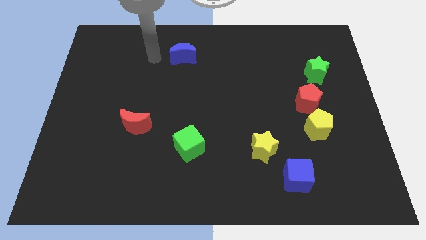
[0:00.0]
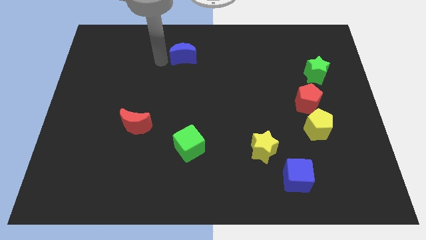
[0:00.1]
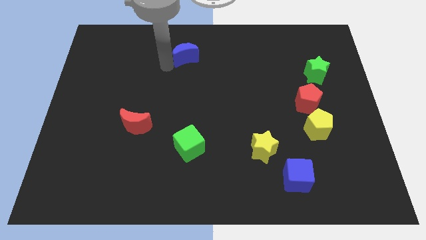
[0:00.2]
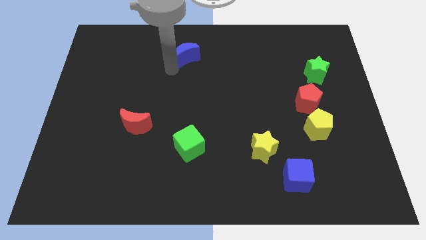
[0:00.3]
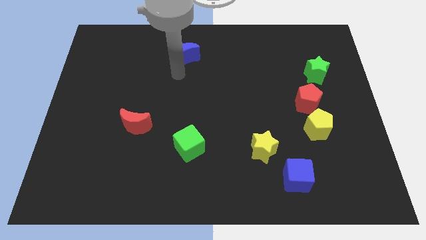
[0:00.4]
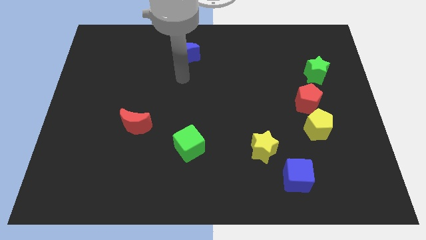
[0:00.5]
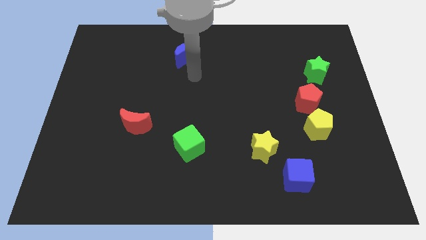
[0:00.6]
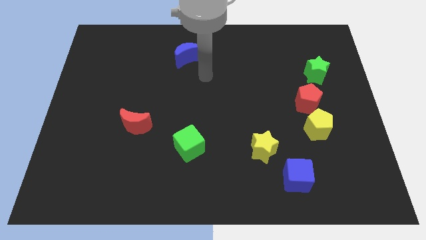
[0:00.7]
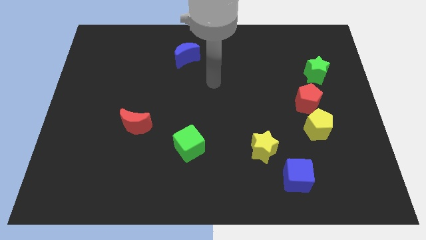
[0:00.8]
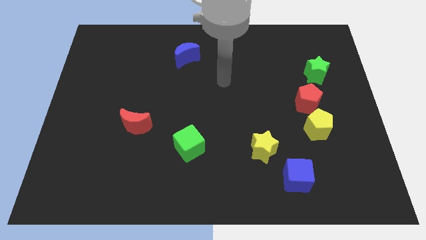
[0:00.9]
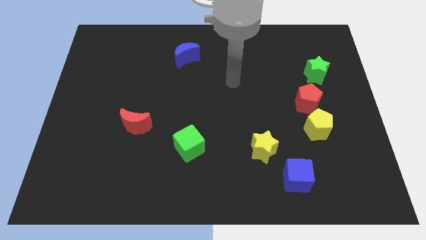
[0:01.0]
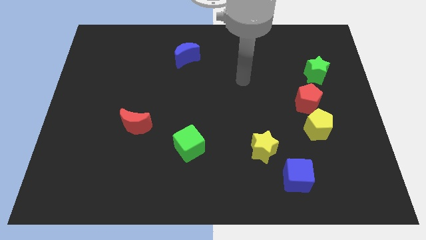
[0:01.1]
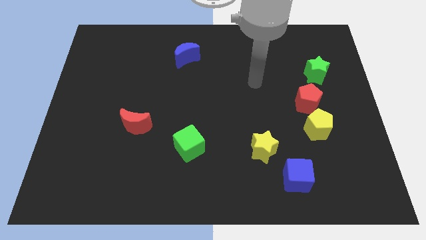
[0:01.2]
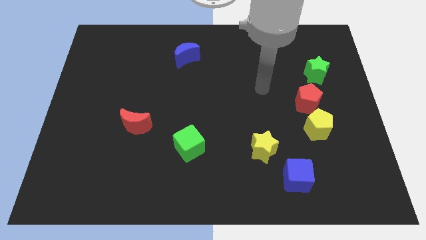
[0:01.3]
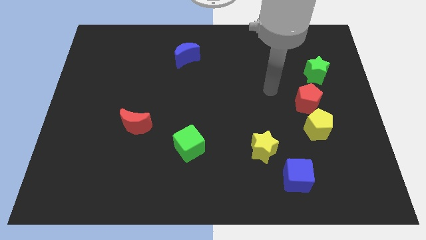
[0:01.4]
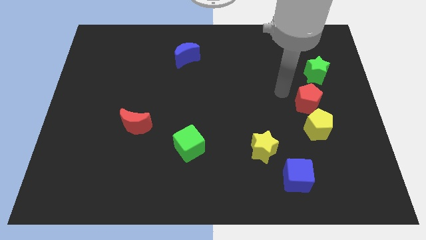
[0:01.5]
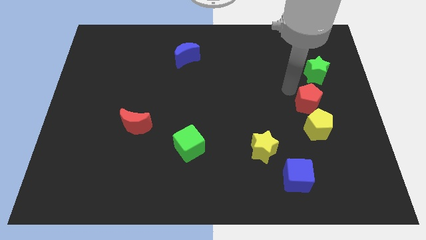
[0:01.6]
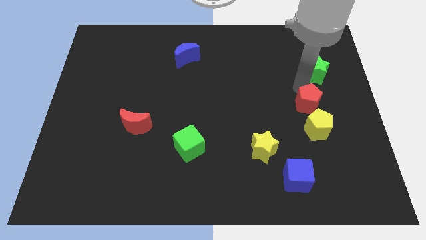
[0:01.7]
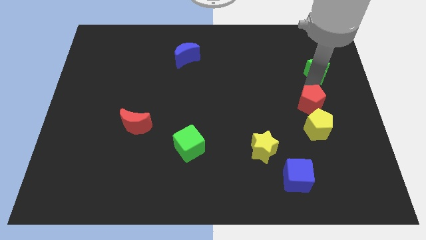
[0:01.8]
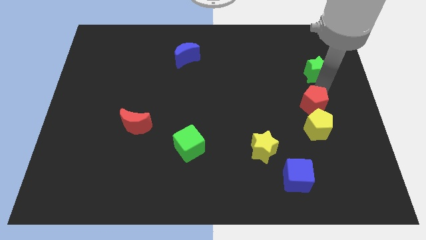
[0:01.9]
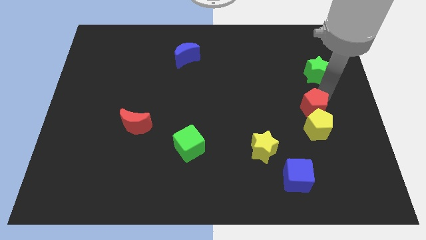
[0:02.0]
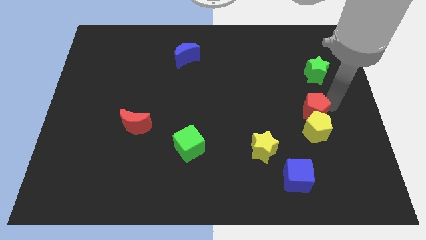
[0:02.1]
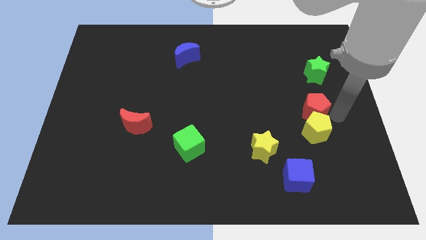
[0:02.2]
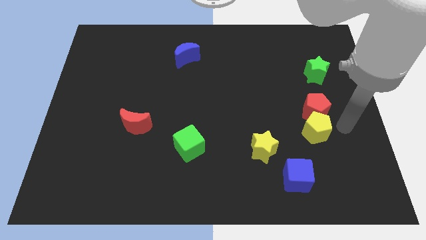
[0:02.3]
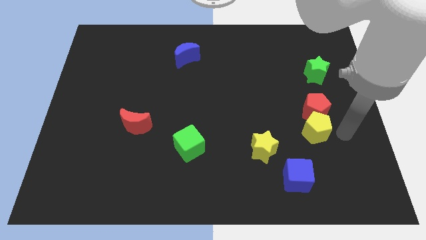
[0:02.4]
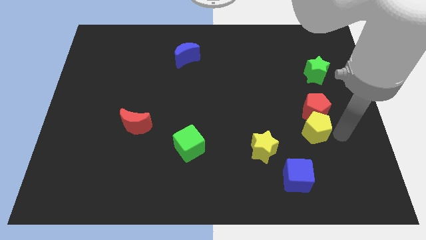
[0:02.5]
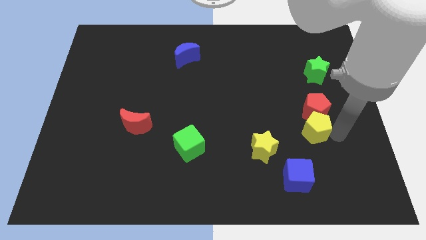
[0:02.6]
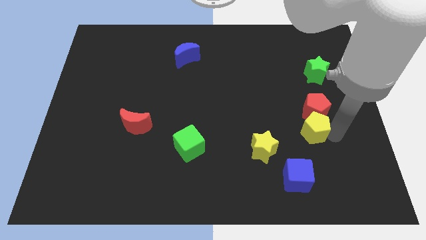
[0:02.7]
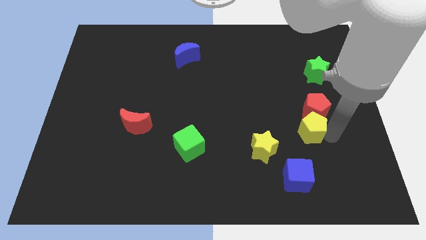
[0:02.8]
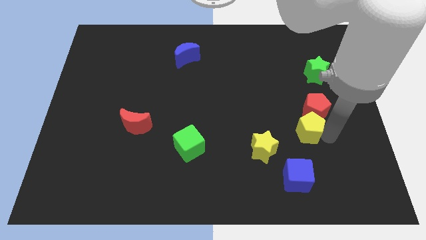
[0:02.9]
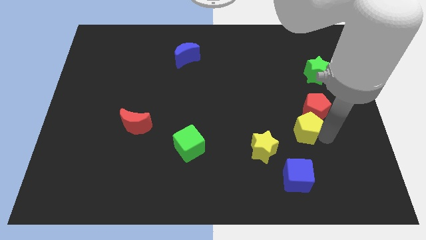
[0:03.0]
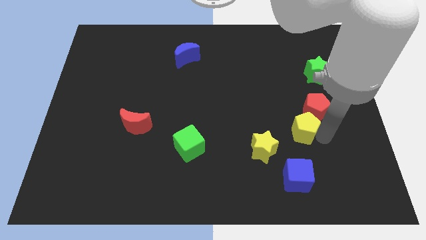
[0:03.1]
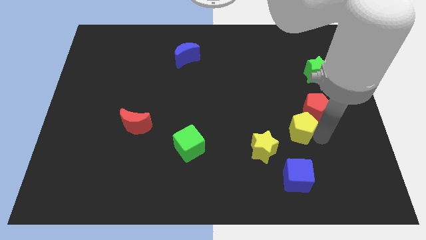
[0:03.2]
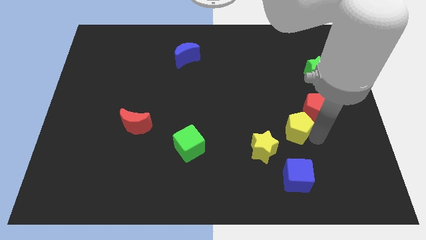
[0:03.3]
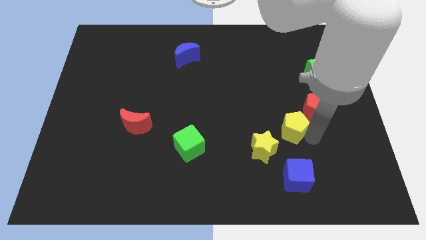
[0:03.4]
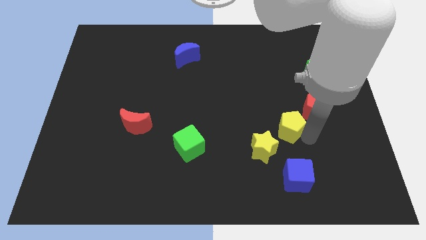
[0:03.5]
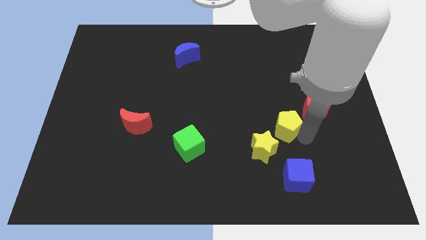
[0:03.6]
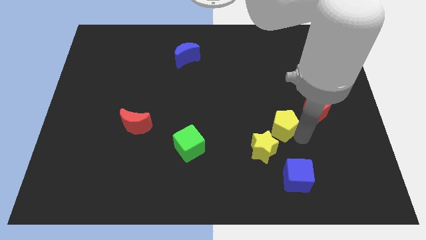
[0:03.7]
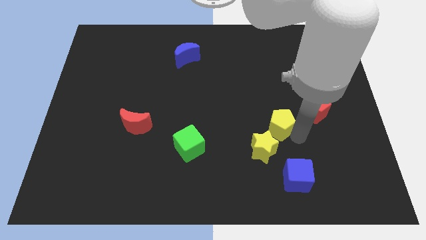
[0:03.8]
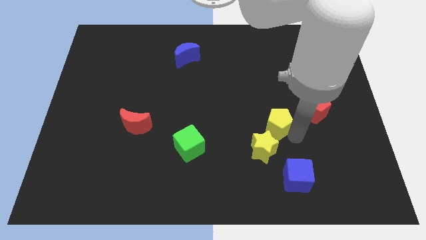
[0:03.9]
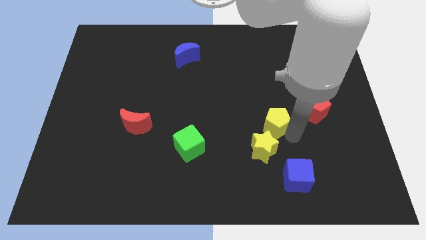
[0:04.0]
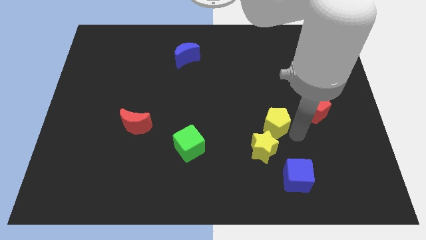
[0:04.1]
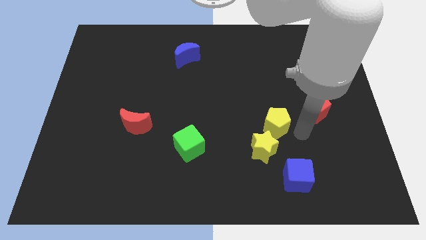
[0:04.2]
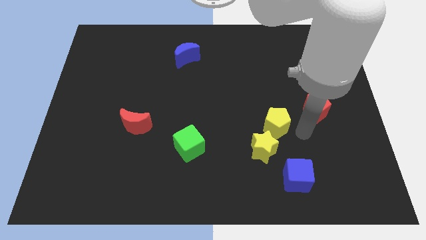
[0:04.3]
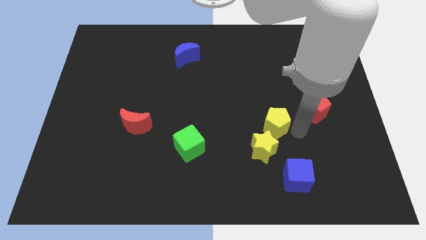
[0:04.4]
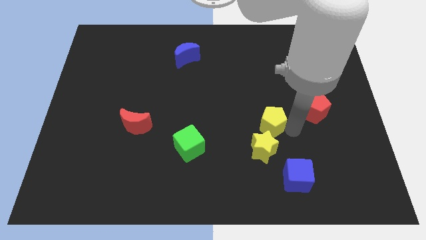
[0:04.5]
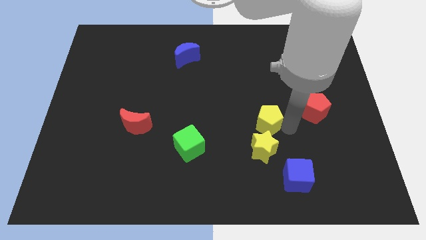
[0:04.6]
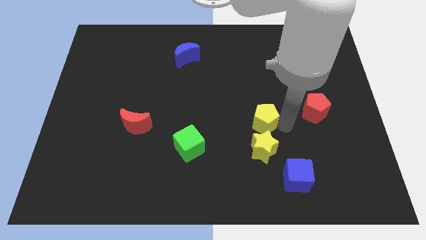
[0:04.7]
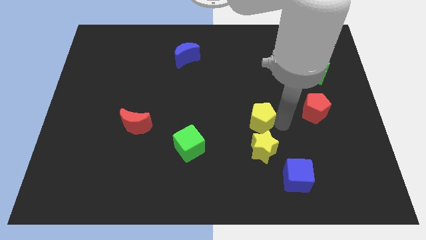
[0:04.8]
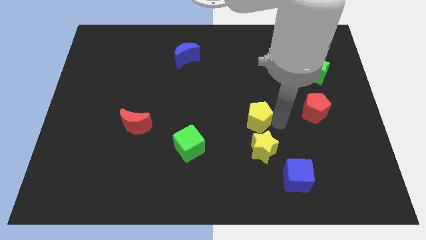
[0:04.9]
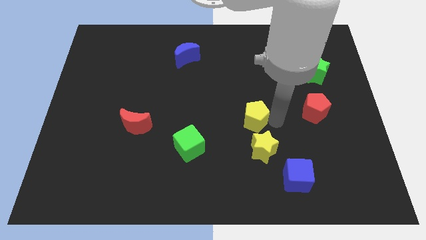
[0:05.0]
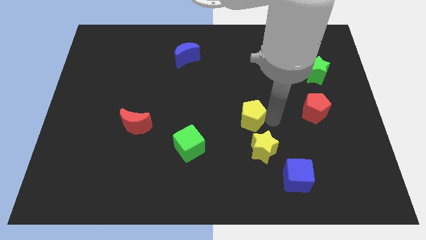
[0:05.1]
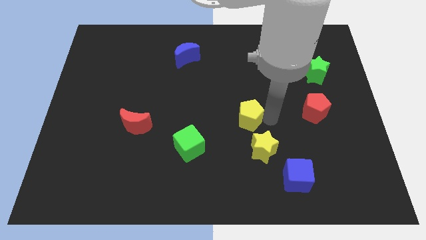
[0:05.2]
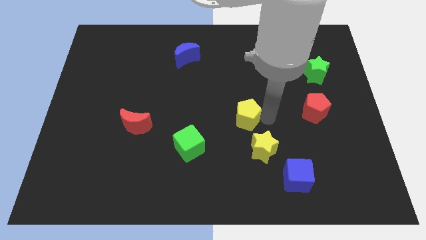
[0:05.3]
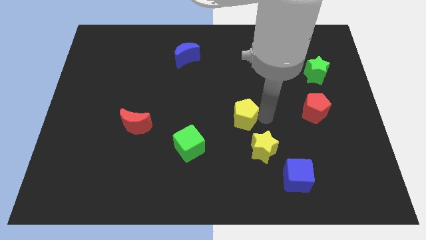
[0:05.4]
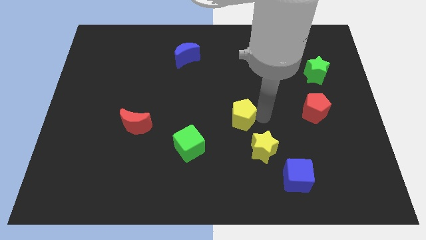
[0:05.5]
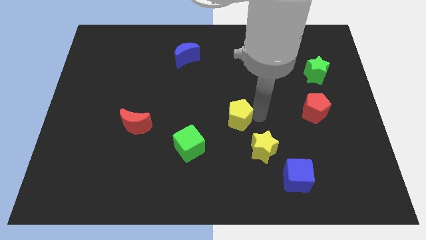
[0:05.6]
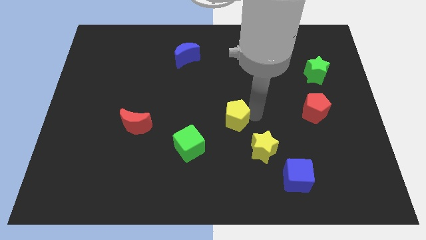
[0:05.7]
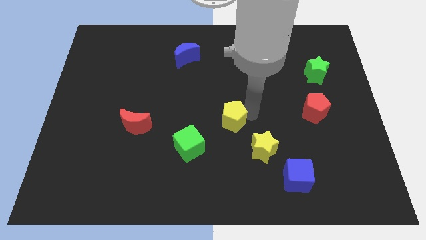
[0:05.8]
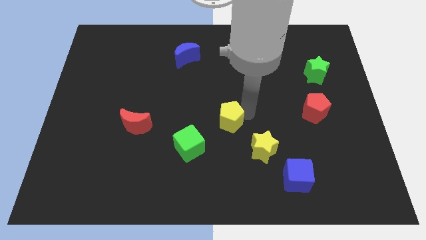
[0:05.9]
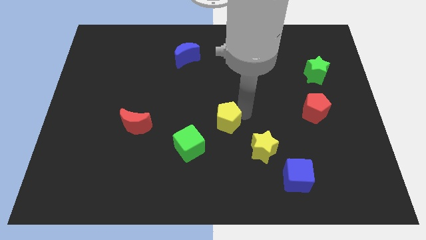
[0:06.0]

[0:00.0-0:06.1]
slide the yellow pentagon left

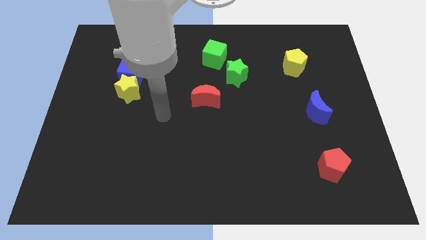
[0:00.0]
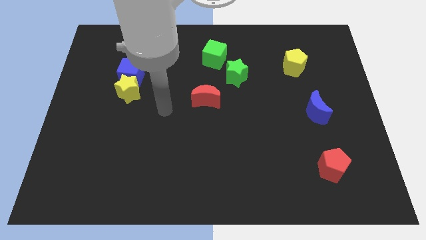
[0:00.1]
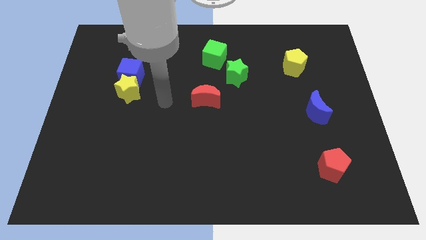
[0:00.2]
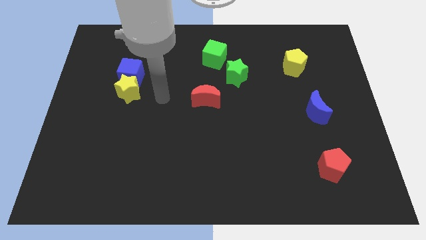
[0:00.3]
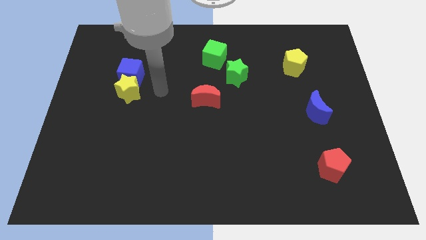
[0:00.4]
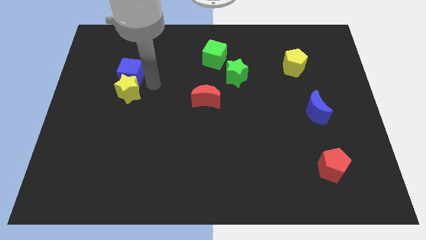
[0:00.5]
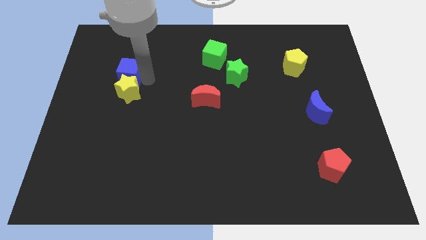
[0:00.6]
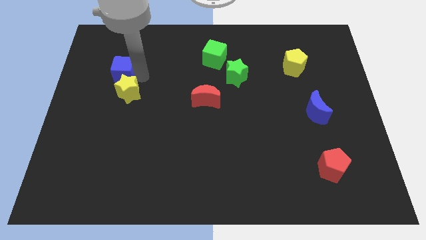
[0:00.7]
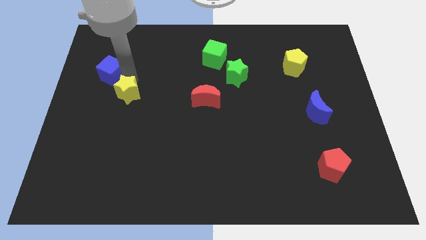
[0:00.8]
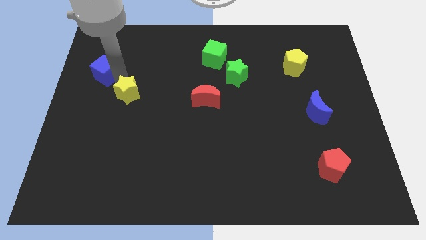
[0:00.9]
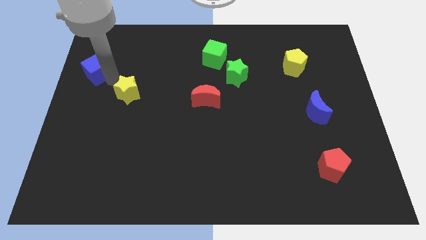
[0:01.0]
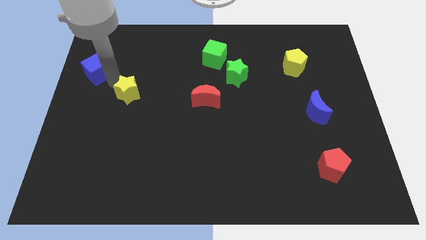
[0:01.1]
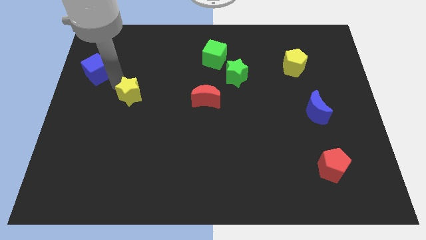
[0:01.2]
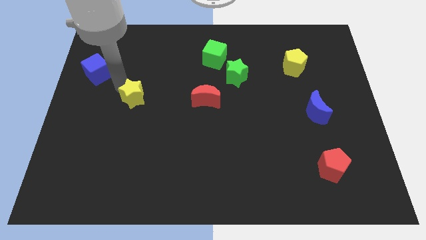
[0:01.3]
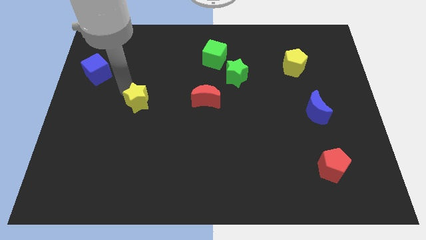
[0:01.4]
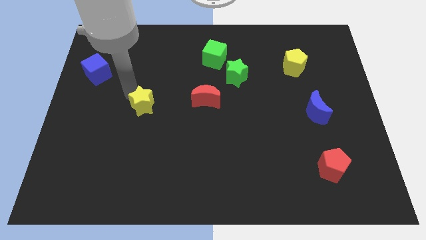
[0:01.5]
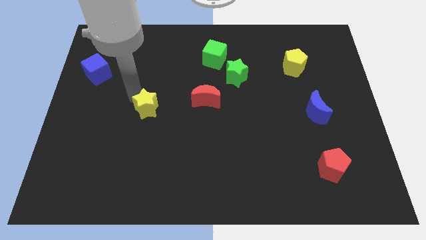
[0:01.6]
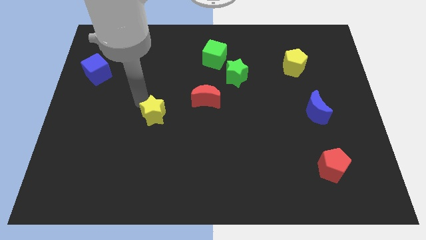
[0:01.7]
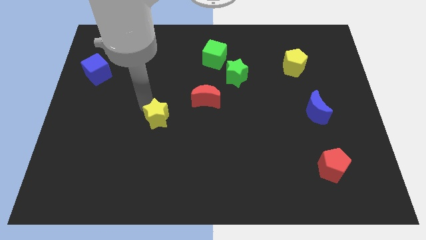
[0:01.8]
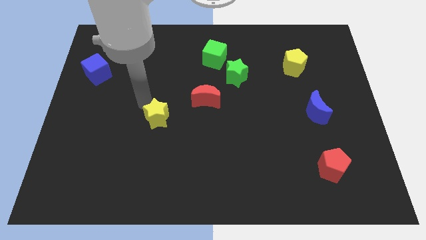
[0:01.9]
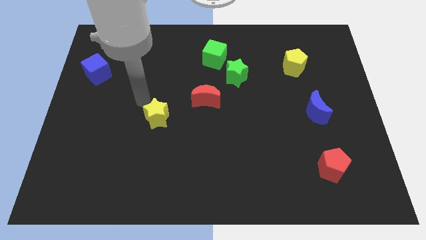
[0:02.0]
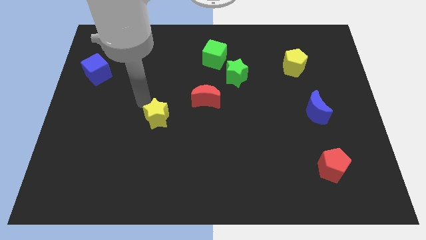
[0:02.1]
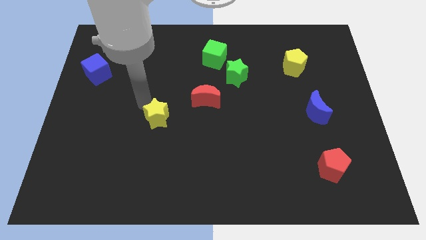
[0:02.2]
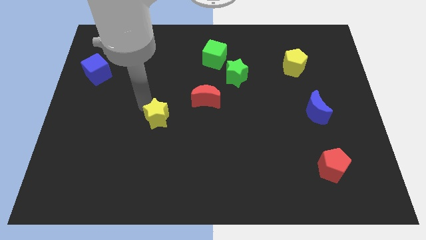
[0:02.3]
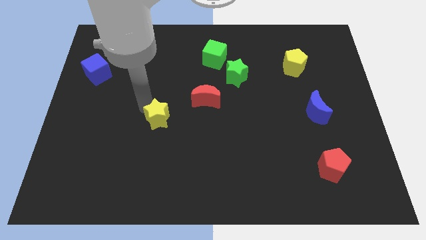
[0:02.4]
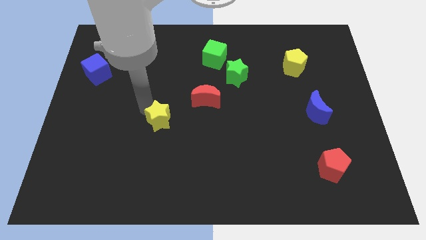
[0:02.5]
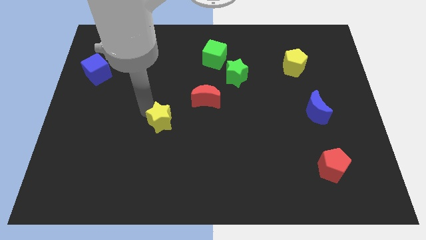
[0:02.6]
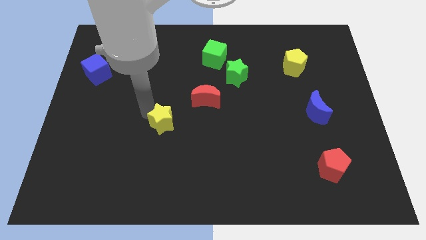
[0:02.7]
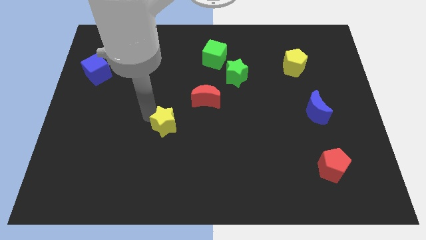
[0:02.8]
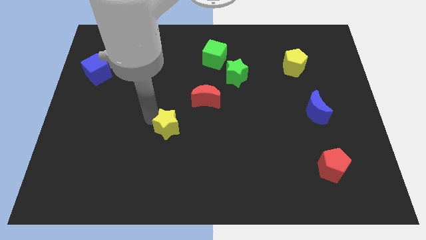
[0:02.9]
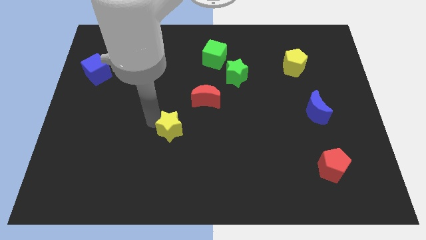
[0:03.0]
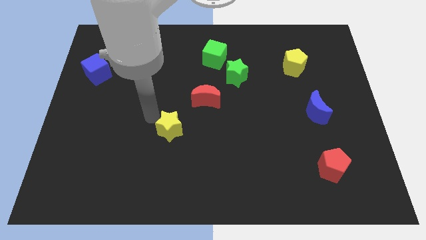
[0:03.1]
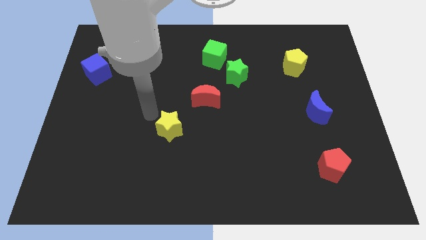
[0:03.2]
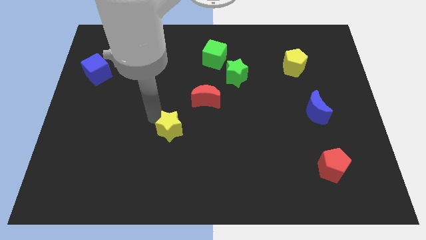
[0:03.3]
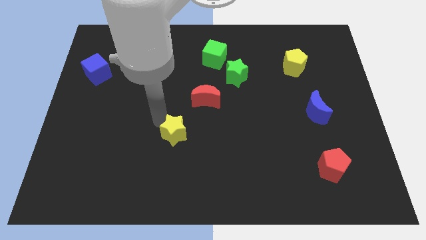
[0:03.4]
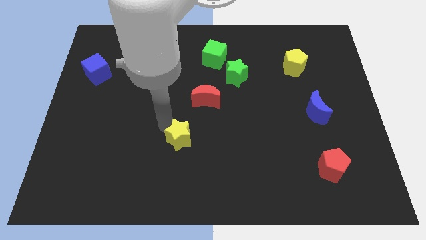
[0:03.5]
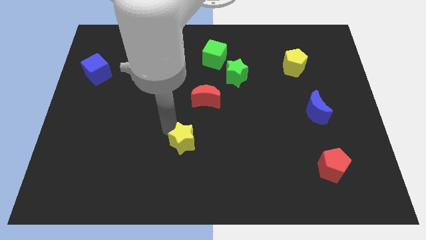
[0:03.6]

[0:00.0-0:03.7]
push the yellow star diagonally downwards and right
